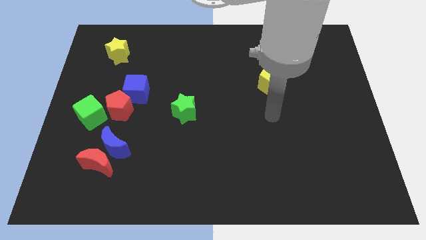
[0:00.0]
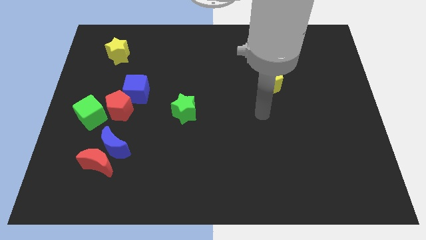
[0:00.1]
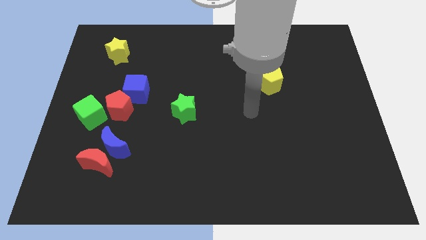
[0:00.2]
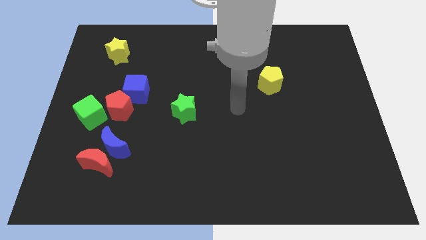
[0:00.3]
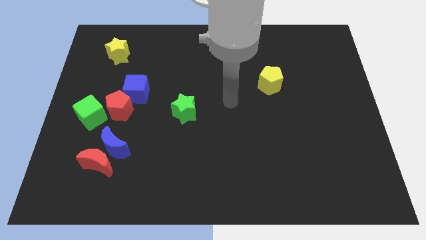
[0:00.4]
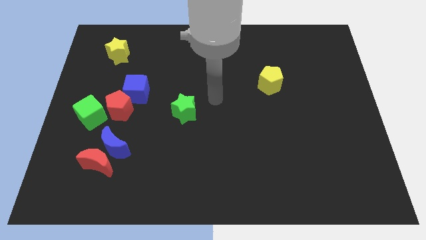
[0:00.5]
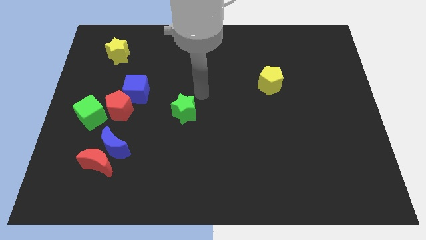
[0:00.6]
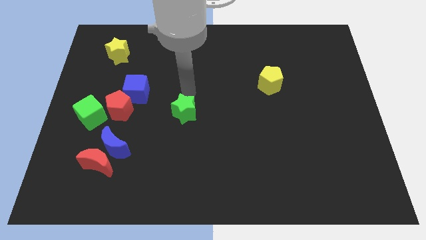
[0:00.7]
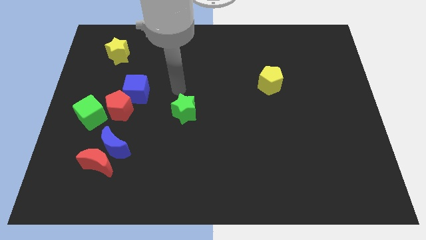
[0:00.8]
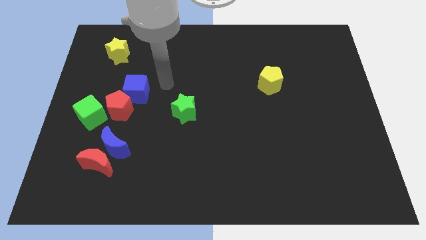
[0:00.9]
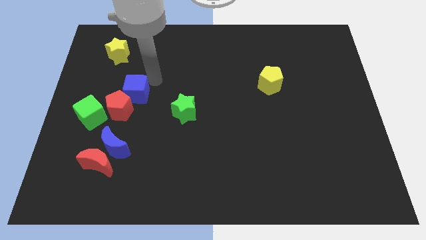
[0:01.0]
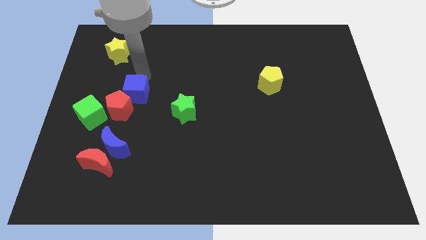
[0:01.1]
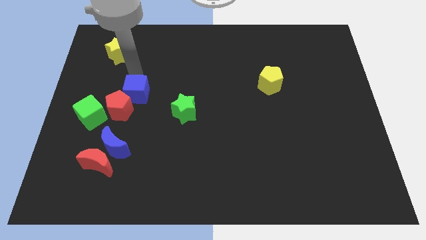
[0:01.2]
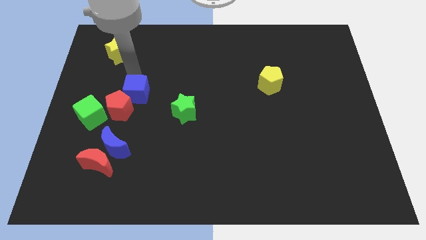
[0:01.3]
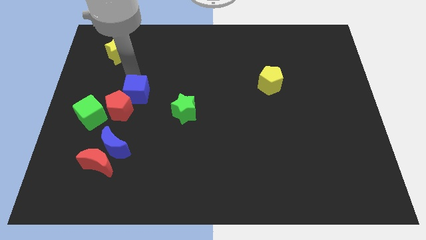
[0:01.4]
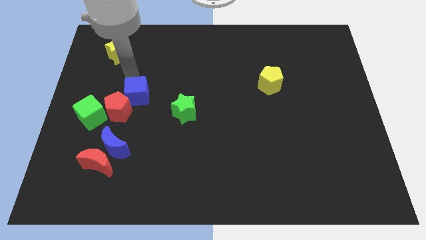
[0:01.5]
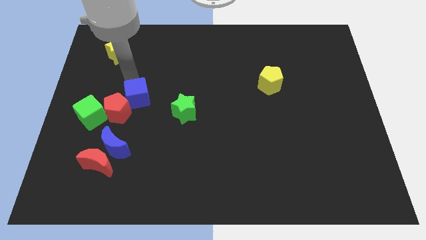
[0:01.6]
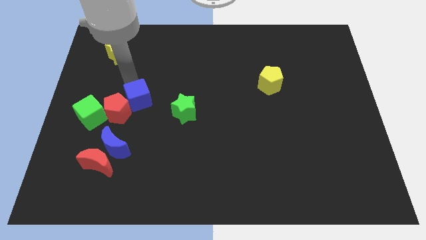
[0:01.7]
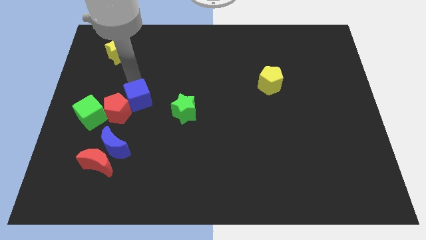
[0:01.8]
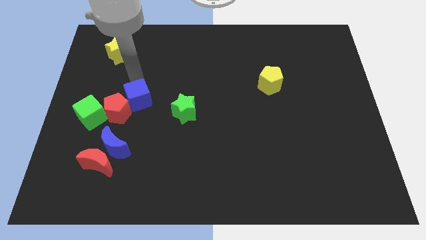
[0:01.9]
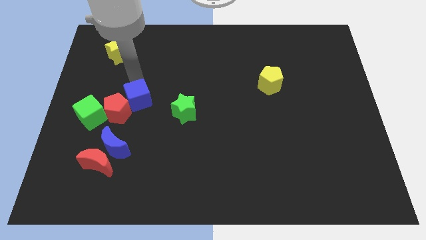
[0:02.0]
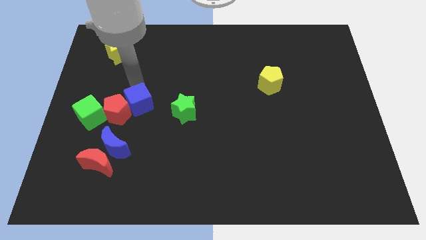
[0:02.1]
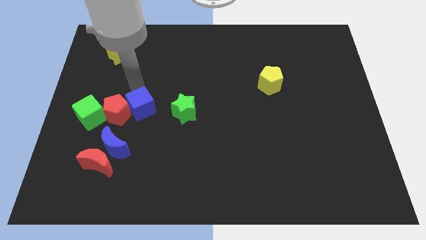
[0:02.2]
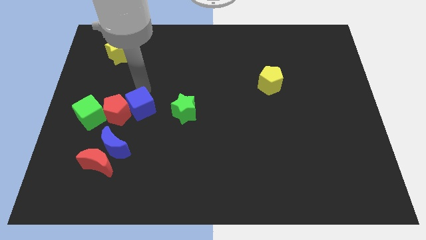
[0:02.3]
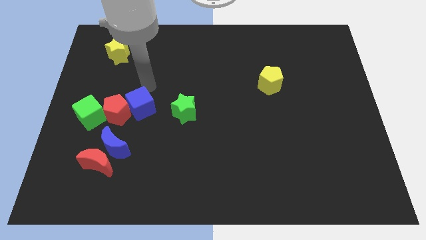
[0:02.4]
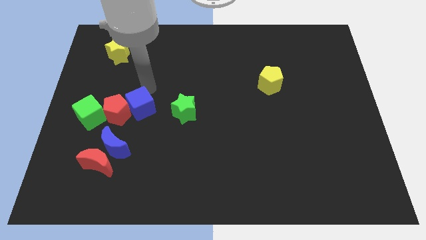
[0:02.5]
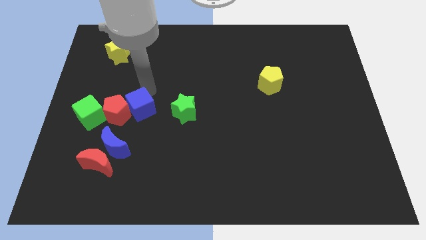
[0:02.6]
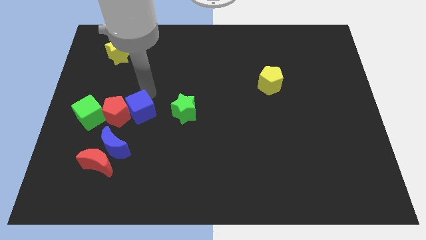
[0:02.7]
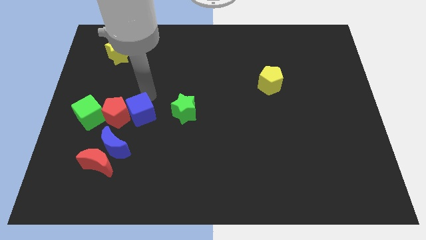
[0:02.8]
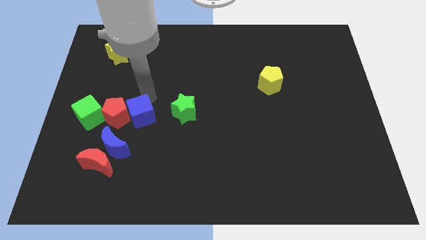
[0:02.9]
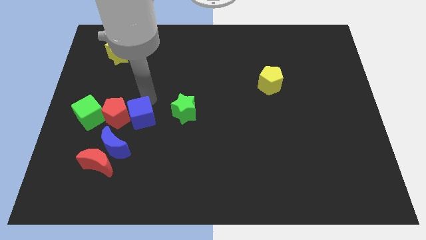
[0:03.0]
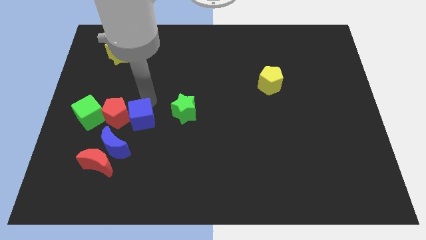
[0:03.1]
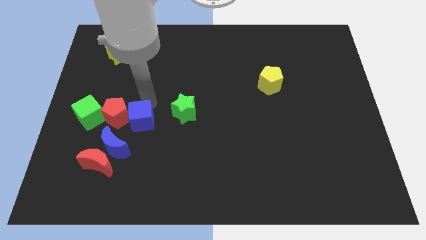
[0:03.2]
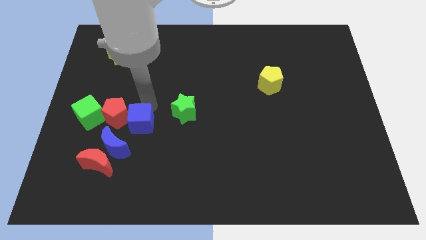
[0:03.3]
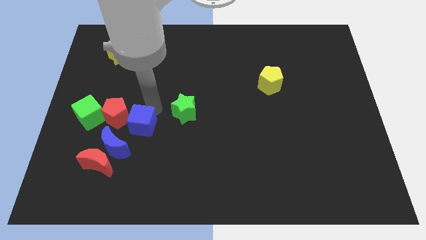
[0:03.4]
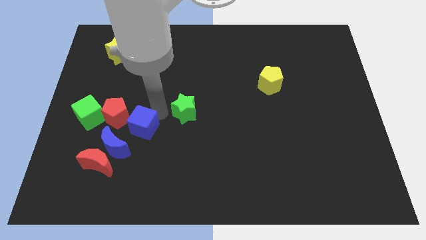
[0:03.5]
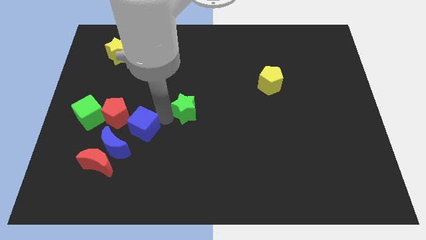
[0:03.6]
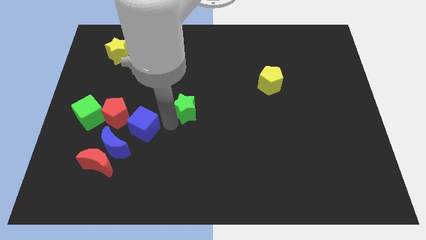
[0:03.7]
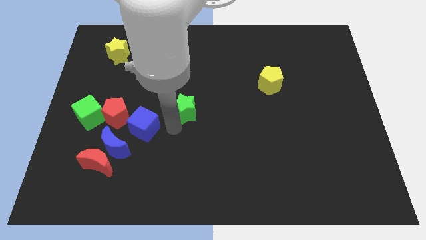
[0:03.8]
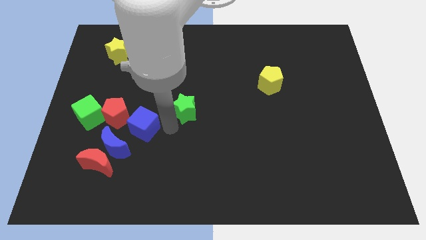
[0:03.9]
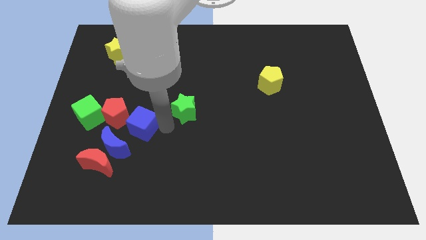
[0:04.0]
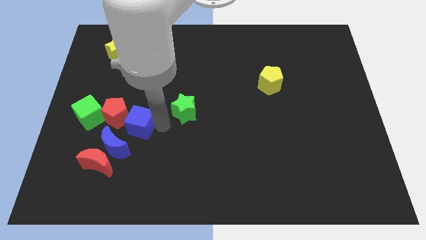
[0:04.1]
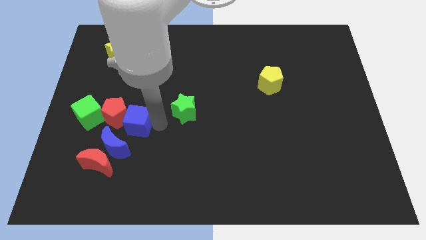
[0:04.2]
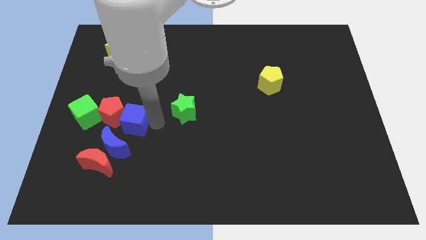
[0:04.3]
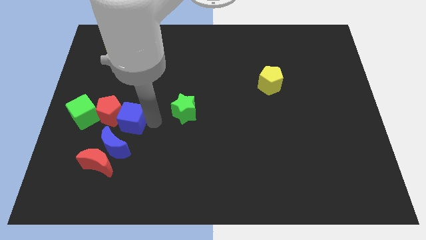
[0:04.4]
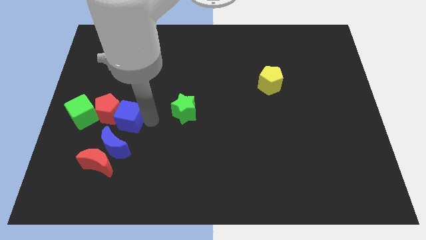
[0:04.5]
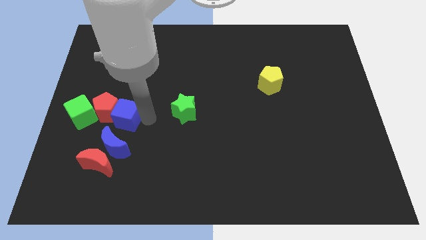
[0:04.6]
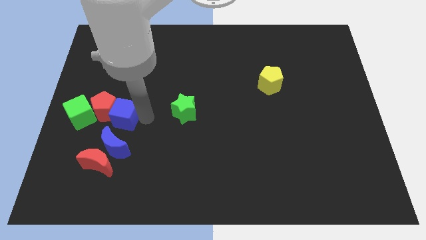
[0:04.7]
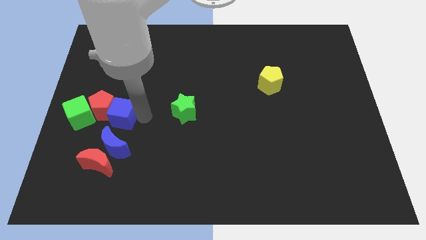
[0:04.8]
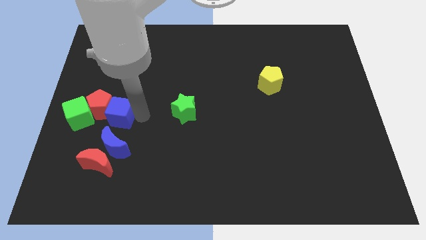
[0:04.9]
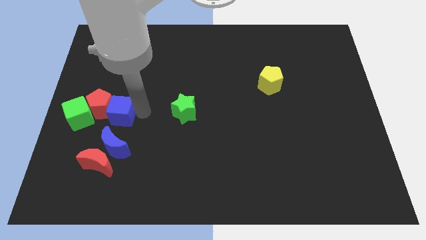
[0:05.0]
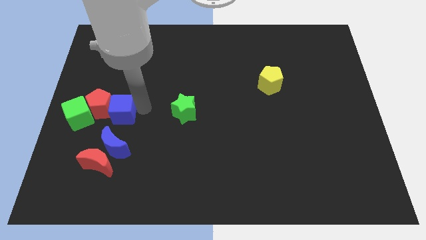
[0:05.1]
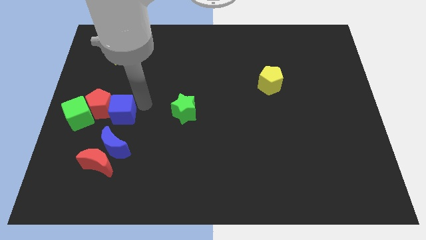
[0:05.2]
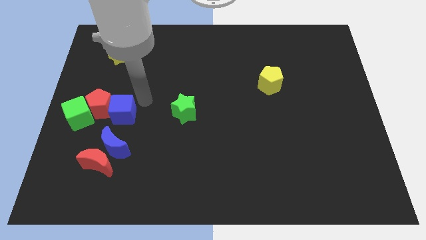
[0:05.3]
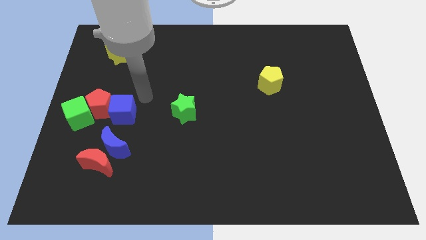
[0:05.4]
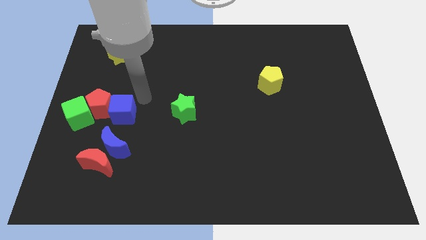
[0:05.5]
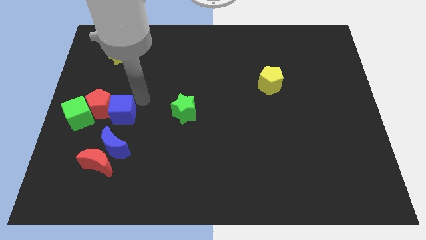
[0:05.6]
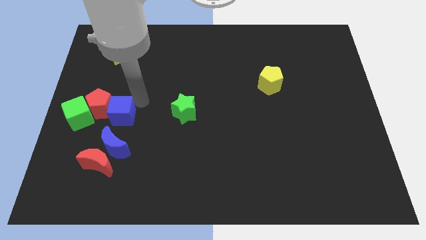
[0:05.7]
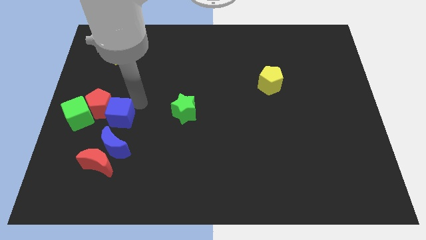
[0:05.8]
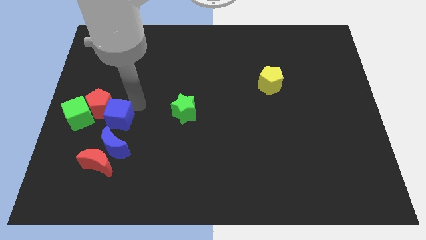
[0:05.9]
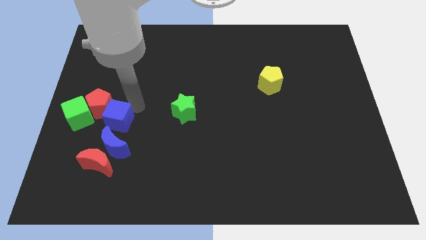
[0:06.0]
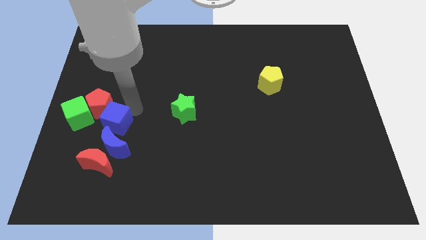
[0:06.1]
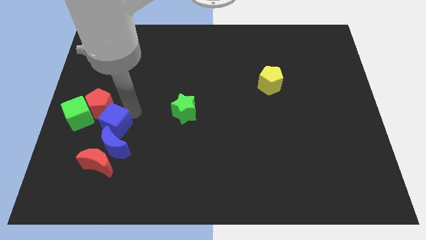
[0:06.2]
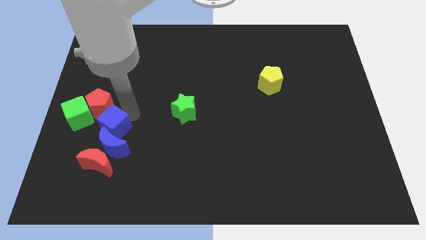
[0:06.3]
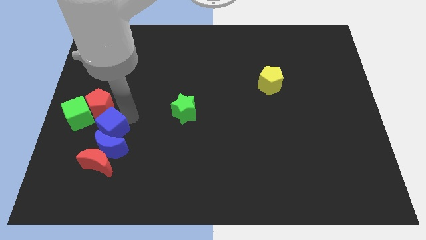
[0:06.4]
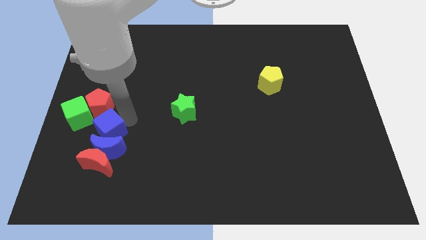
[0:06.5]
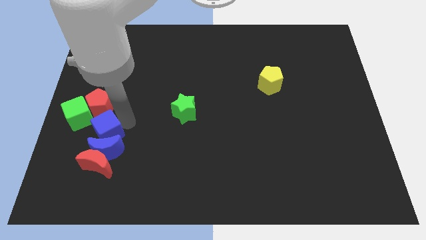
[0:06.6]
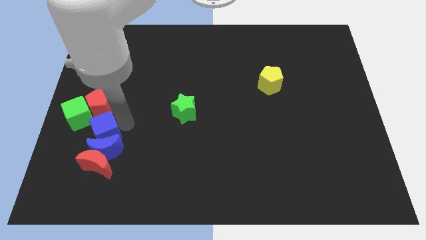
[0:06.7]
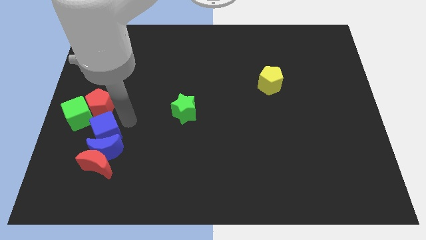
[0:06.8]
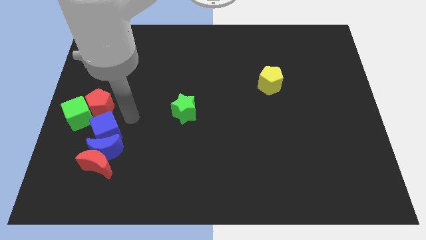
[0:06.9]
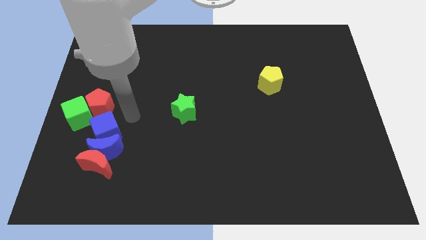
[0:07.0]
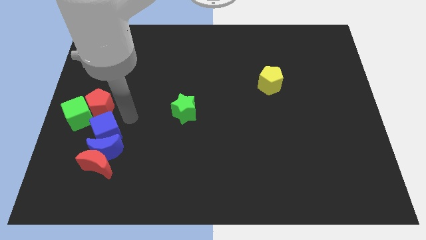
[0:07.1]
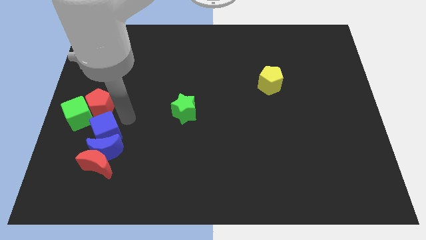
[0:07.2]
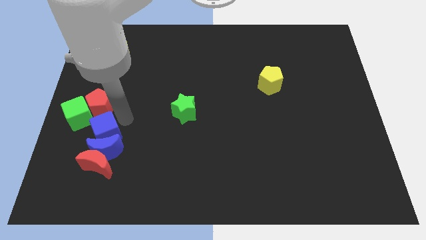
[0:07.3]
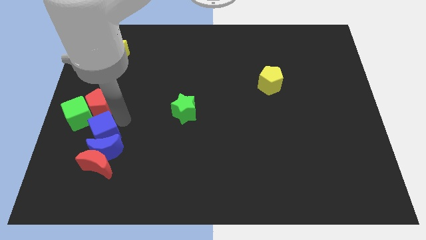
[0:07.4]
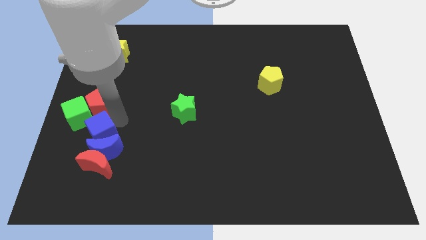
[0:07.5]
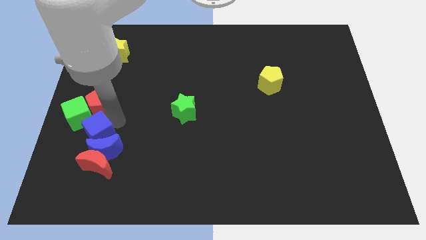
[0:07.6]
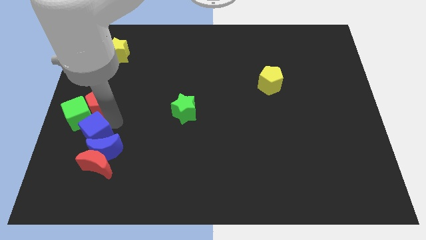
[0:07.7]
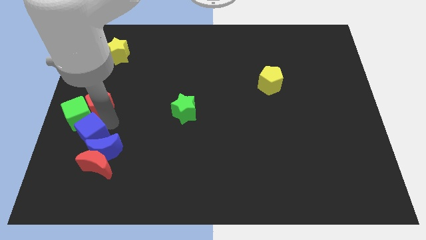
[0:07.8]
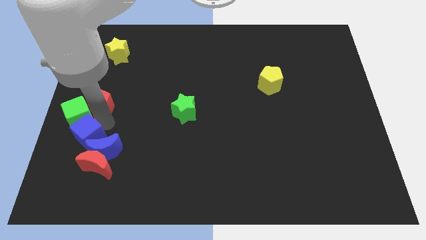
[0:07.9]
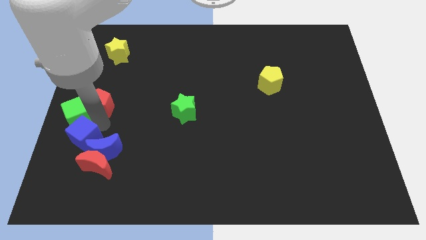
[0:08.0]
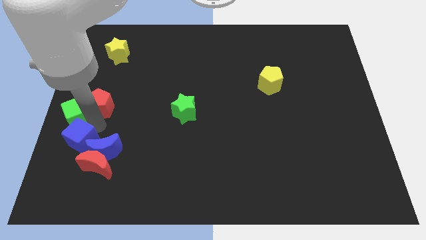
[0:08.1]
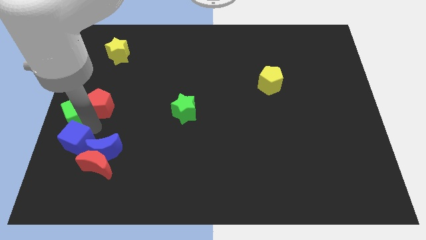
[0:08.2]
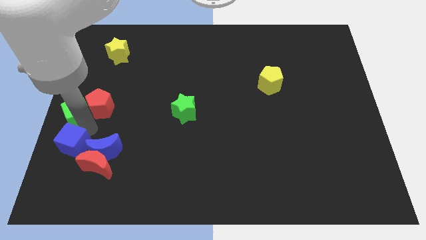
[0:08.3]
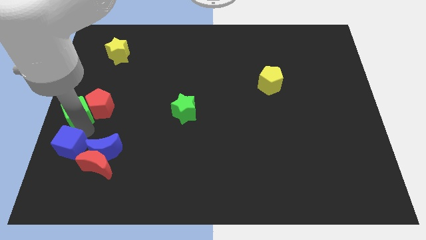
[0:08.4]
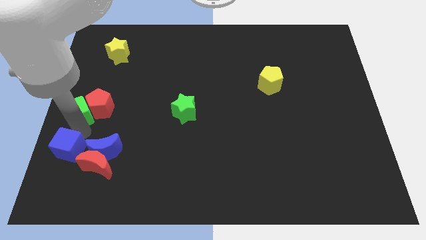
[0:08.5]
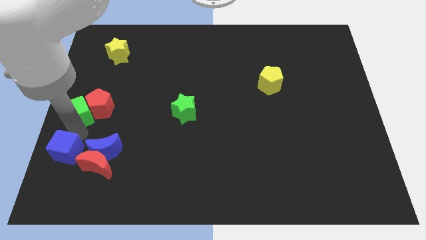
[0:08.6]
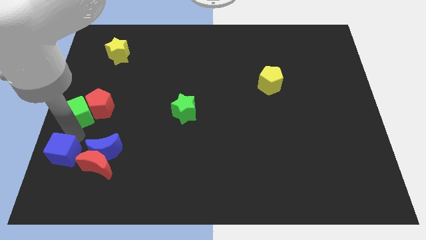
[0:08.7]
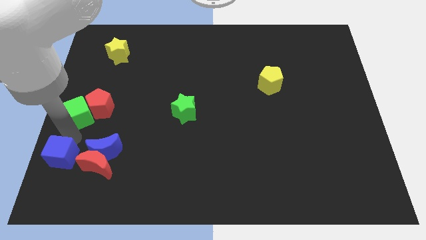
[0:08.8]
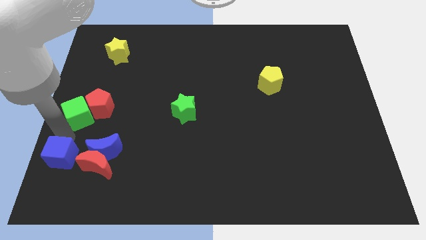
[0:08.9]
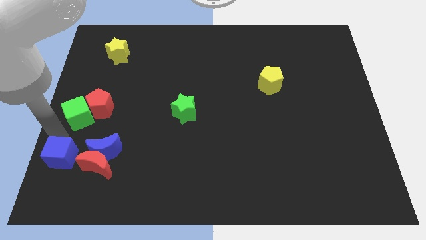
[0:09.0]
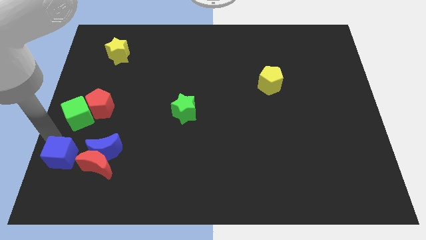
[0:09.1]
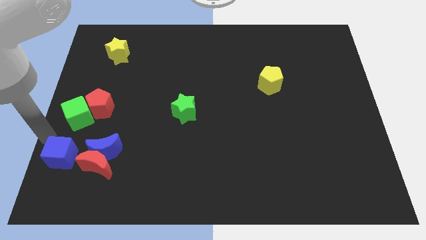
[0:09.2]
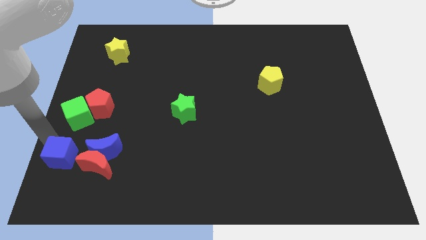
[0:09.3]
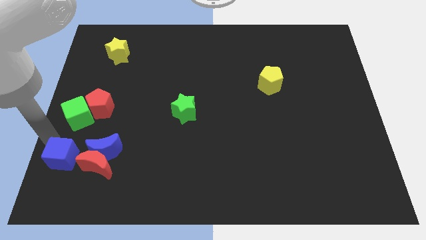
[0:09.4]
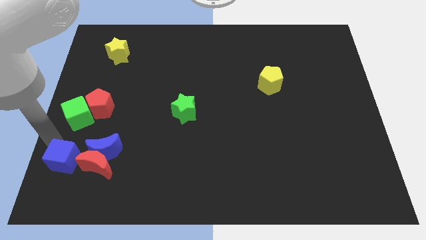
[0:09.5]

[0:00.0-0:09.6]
push the blue cube diagonally down and to the left of the blue moon
